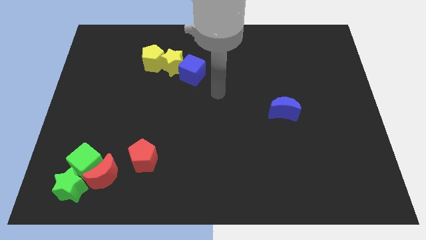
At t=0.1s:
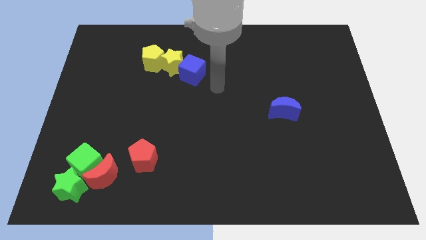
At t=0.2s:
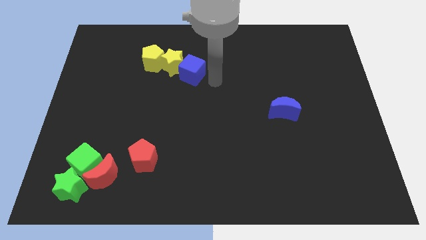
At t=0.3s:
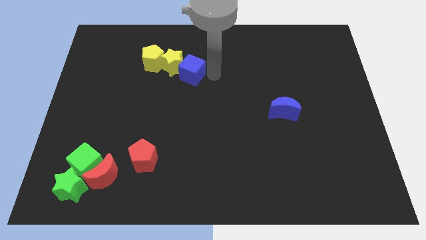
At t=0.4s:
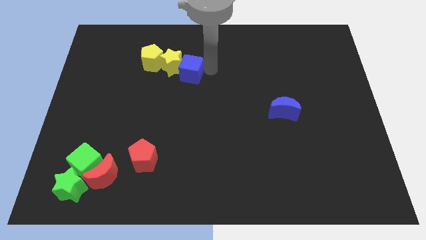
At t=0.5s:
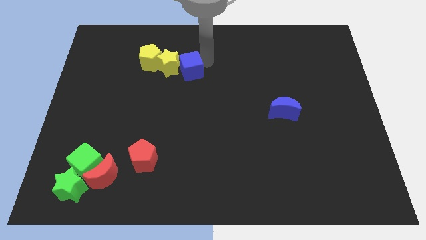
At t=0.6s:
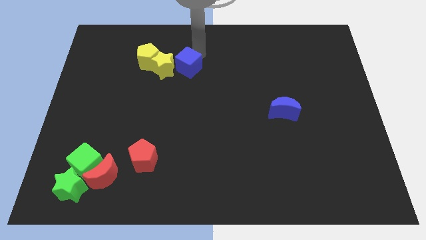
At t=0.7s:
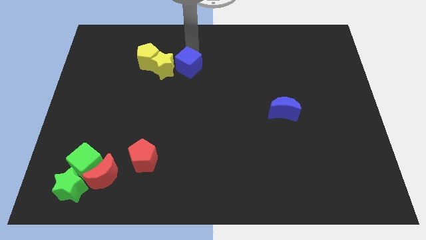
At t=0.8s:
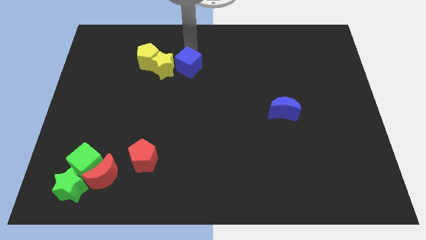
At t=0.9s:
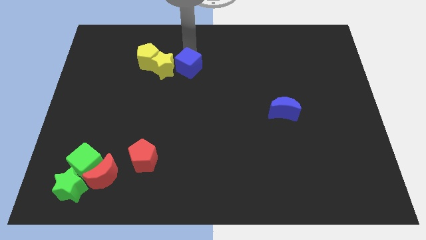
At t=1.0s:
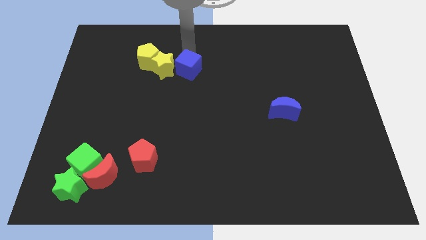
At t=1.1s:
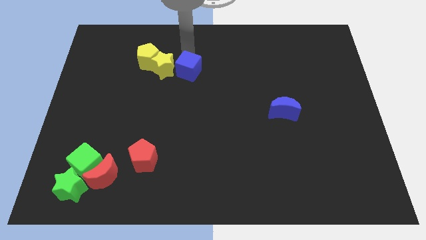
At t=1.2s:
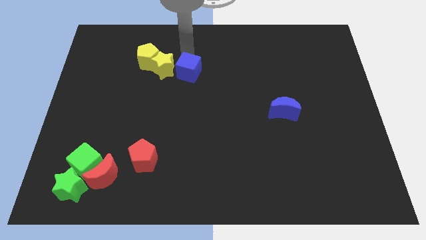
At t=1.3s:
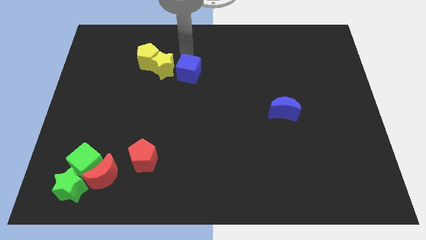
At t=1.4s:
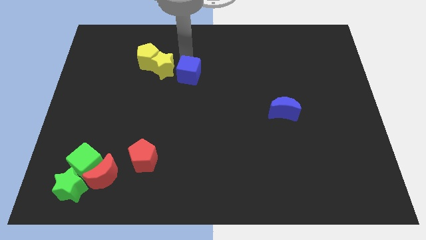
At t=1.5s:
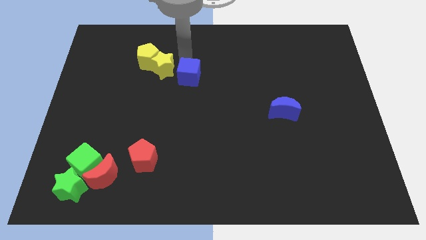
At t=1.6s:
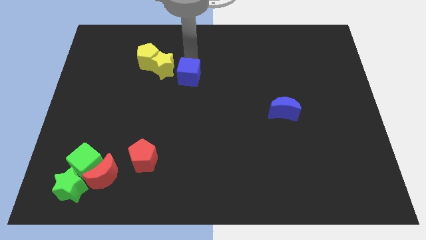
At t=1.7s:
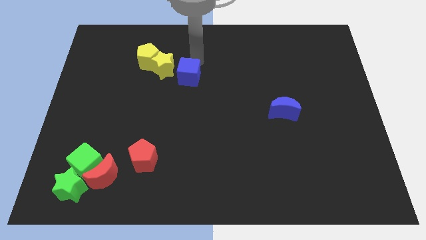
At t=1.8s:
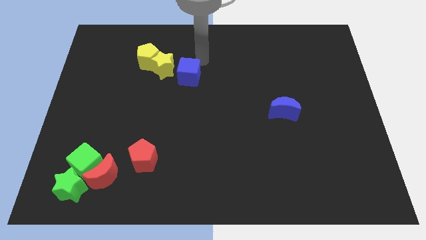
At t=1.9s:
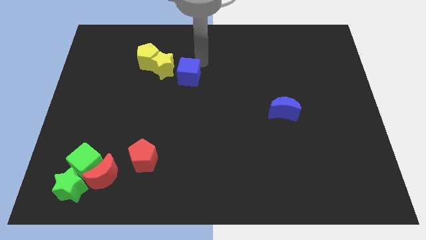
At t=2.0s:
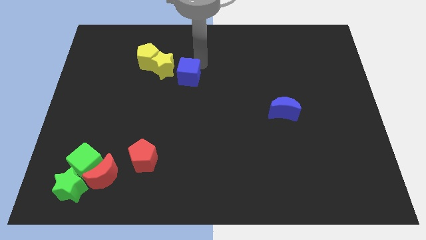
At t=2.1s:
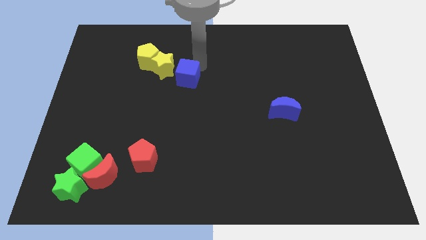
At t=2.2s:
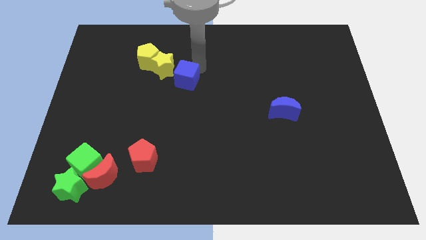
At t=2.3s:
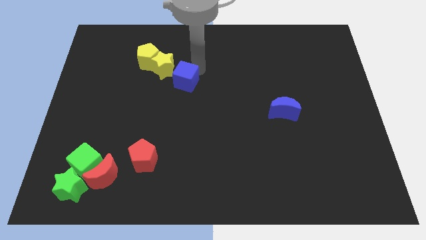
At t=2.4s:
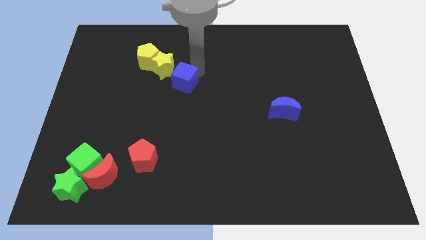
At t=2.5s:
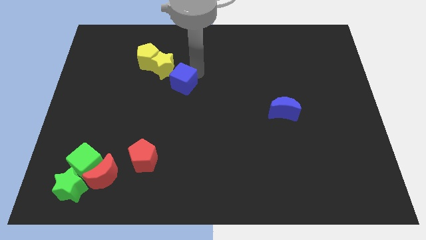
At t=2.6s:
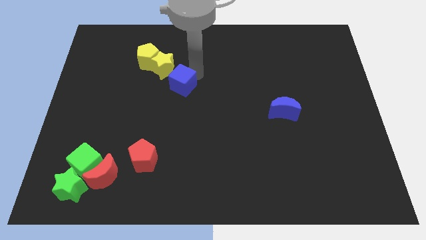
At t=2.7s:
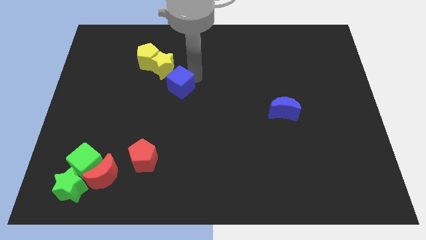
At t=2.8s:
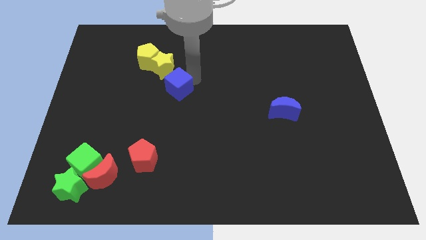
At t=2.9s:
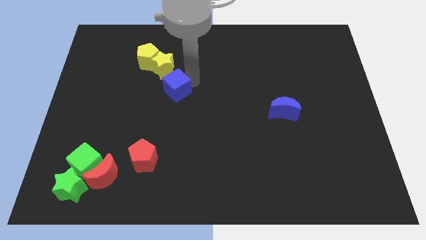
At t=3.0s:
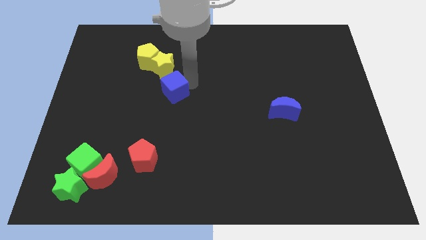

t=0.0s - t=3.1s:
slightly slide the blue cube downwards and then left

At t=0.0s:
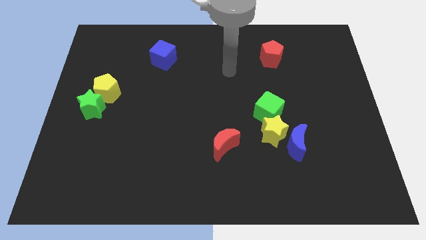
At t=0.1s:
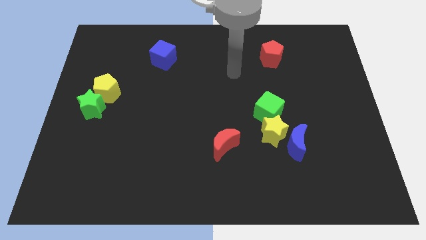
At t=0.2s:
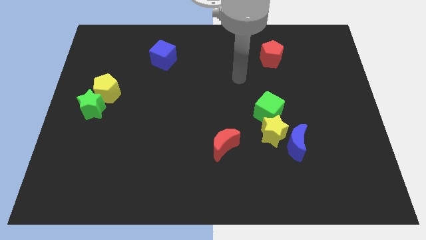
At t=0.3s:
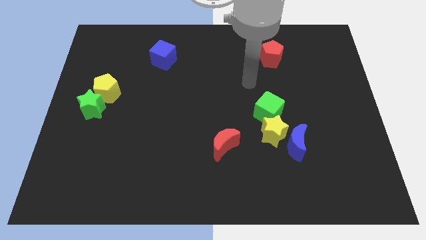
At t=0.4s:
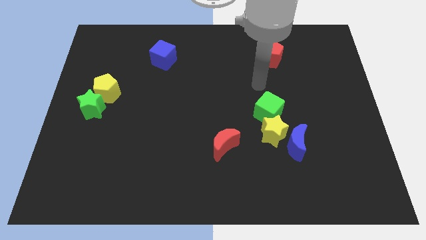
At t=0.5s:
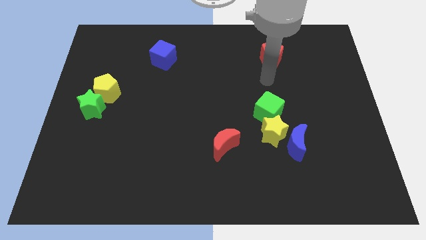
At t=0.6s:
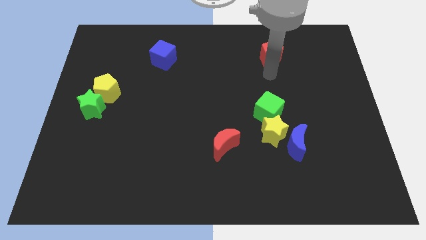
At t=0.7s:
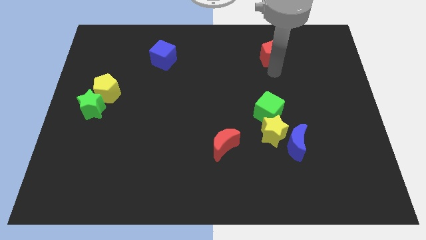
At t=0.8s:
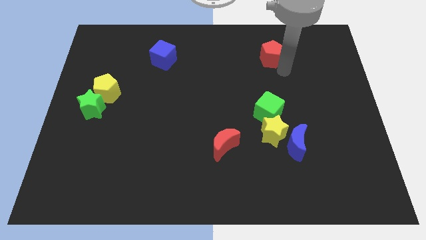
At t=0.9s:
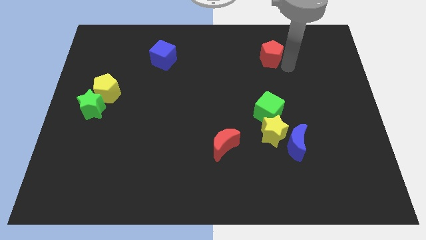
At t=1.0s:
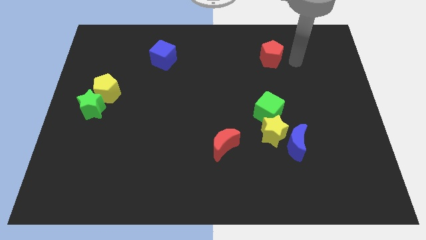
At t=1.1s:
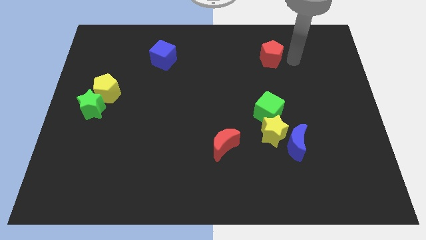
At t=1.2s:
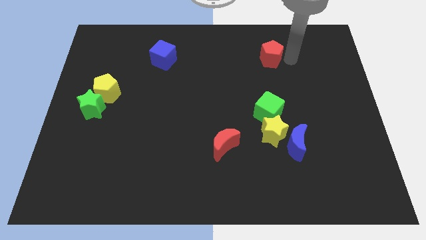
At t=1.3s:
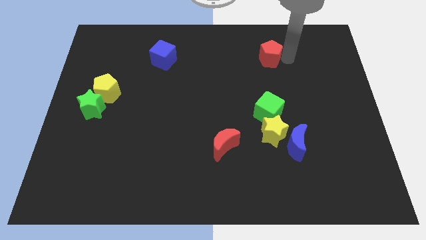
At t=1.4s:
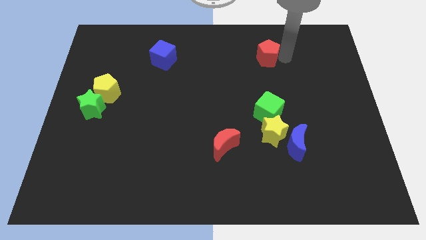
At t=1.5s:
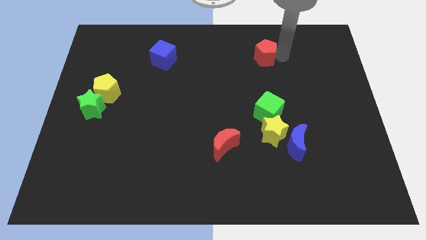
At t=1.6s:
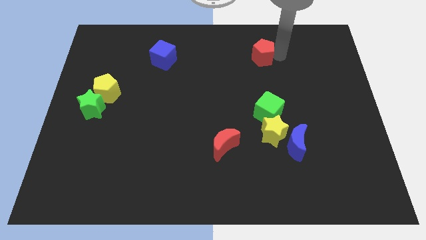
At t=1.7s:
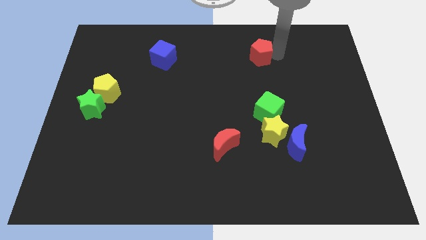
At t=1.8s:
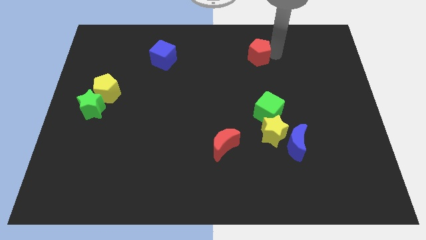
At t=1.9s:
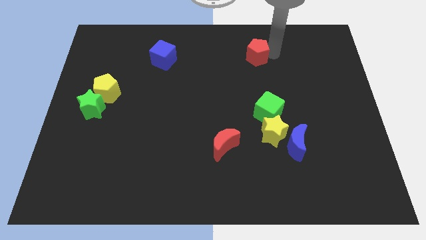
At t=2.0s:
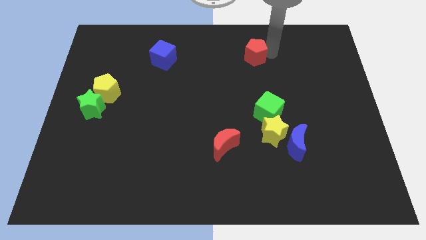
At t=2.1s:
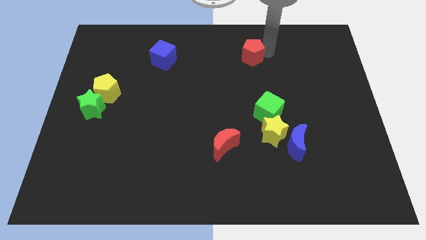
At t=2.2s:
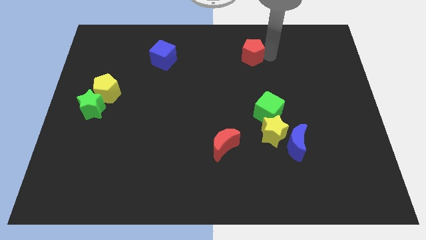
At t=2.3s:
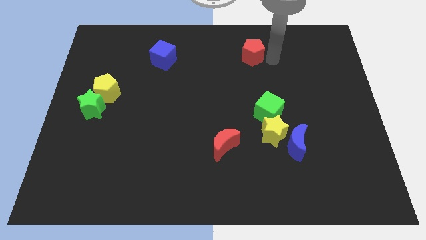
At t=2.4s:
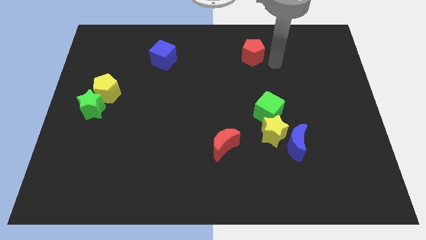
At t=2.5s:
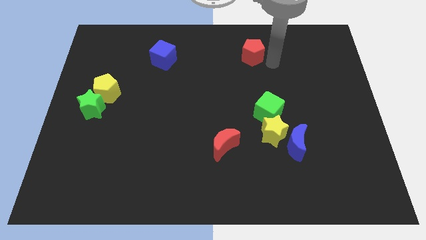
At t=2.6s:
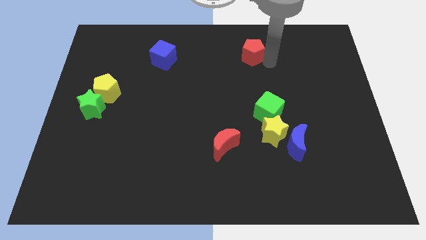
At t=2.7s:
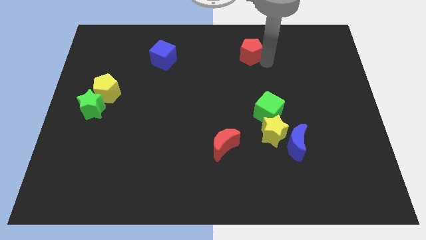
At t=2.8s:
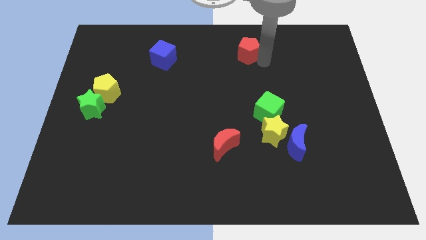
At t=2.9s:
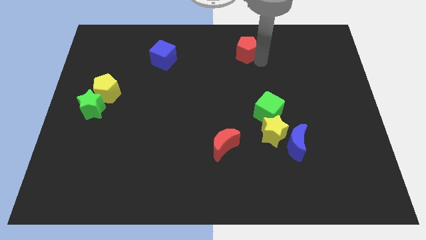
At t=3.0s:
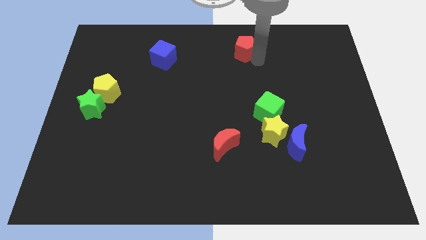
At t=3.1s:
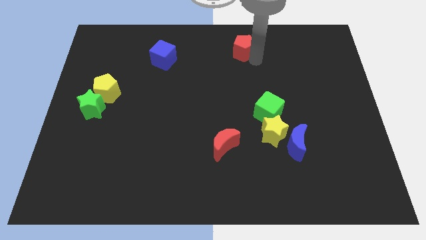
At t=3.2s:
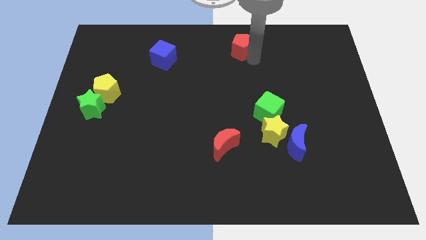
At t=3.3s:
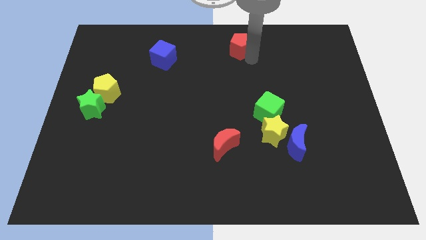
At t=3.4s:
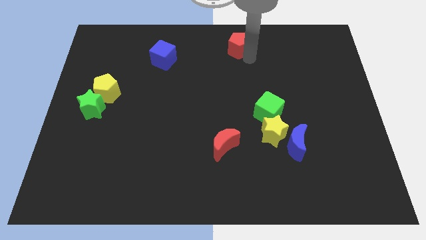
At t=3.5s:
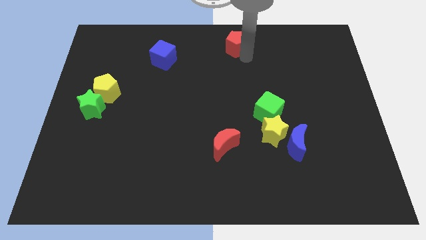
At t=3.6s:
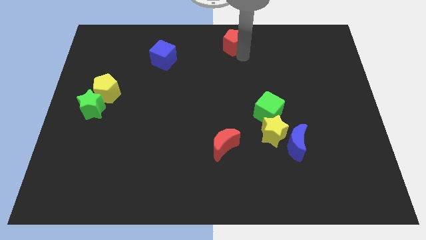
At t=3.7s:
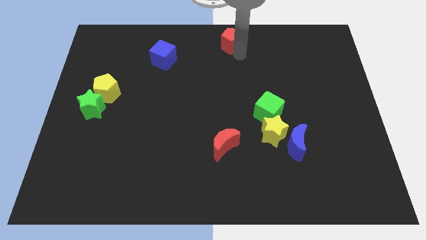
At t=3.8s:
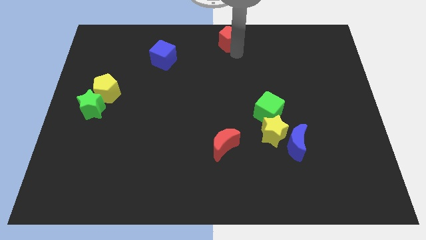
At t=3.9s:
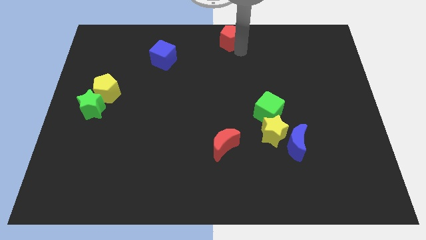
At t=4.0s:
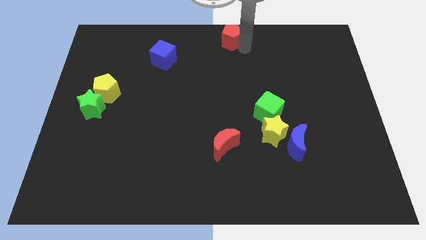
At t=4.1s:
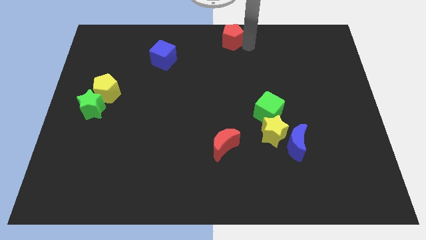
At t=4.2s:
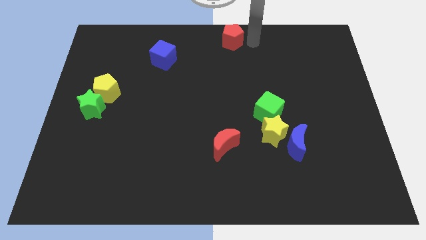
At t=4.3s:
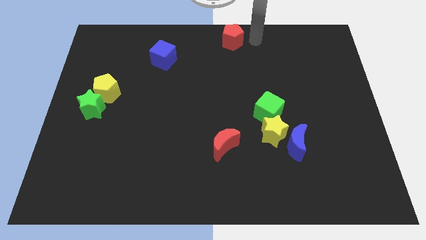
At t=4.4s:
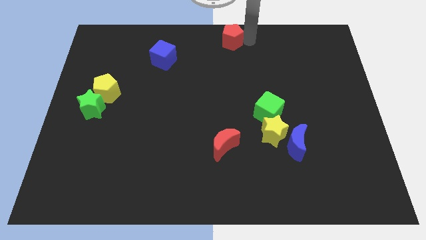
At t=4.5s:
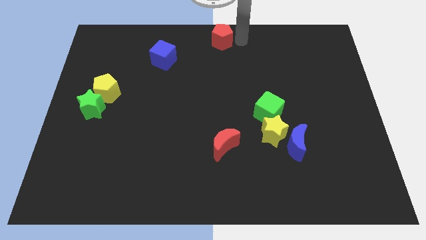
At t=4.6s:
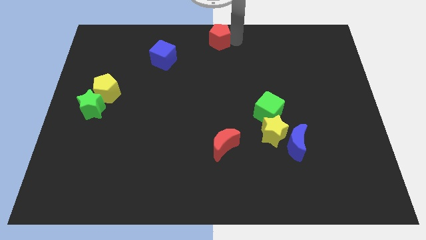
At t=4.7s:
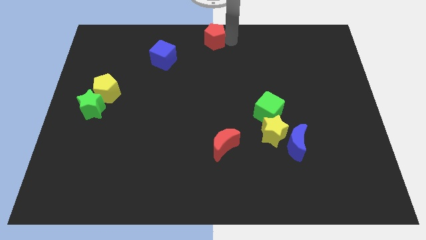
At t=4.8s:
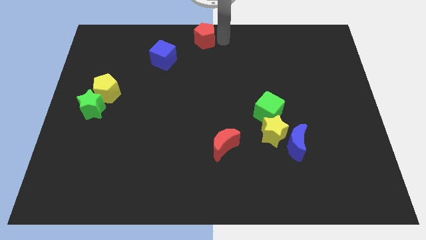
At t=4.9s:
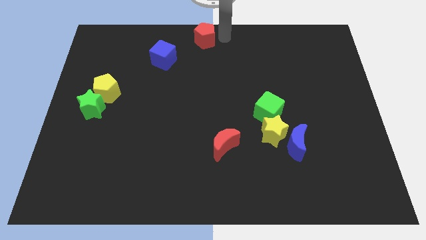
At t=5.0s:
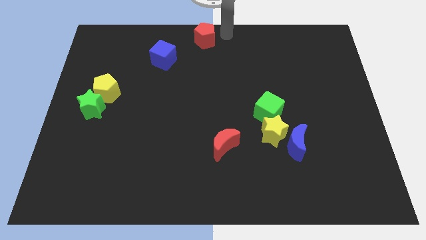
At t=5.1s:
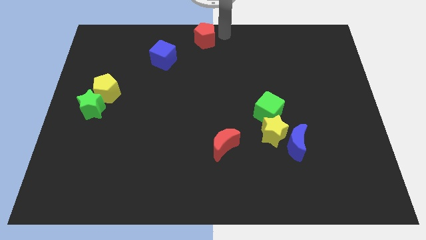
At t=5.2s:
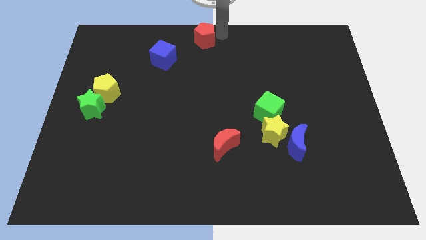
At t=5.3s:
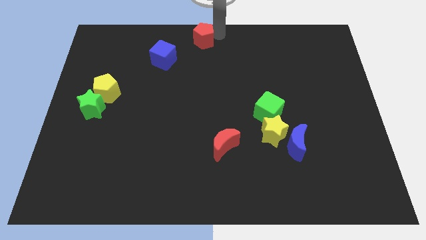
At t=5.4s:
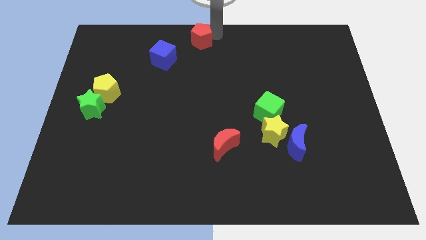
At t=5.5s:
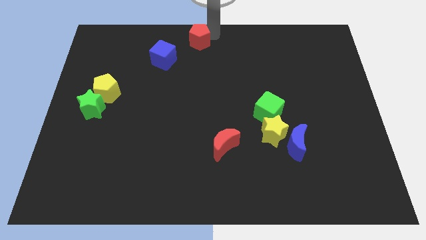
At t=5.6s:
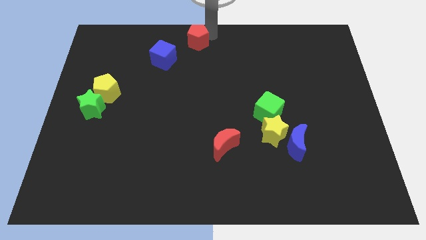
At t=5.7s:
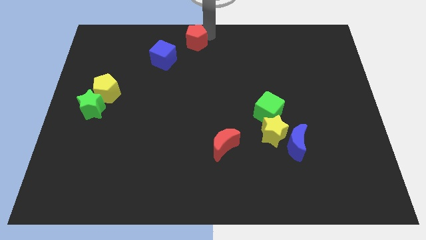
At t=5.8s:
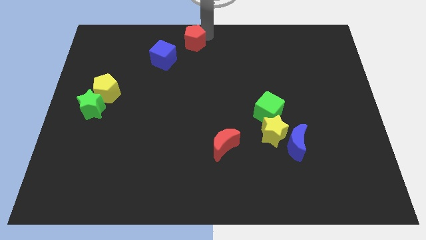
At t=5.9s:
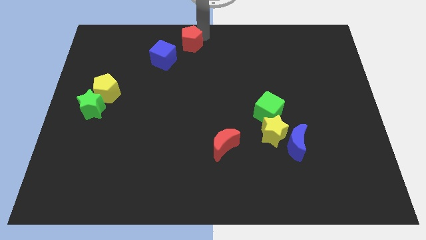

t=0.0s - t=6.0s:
slide the red pentagon to the left
